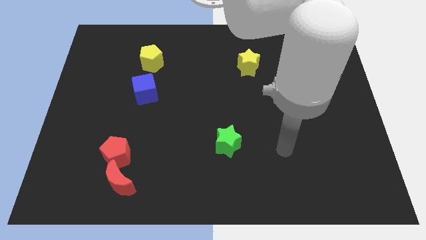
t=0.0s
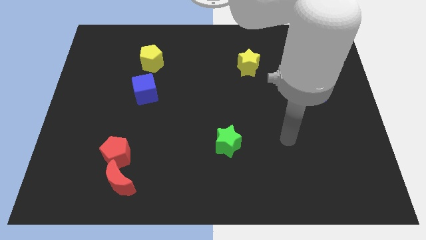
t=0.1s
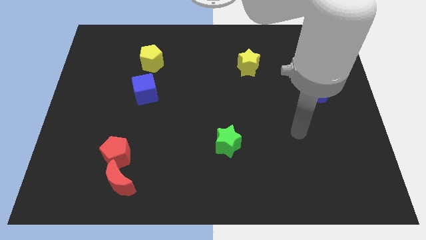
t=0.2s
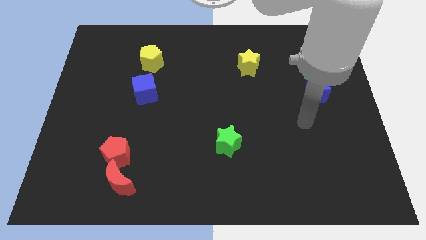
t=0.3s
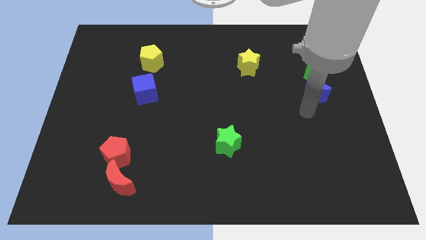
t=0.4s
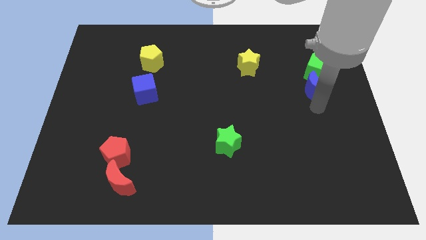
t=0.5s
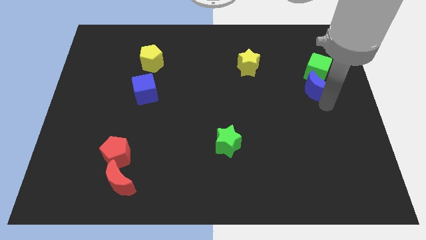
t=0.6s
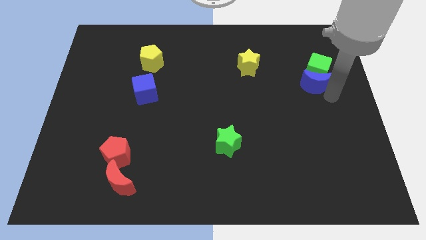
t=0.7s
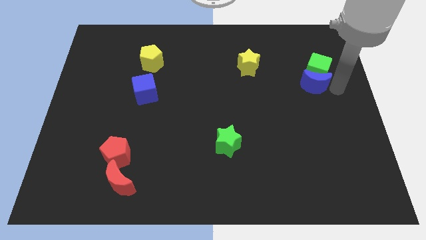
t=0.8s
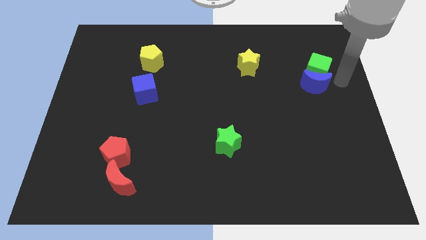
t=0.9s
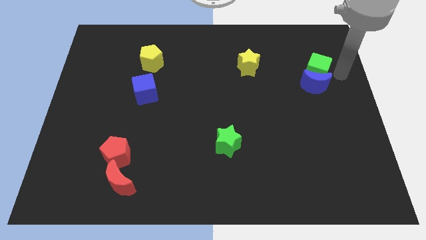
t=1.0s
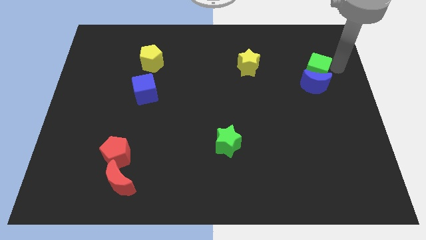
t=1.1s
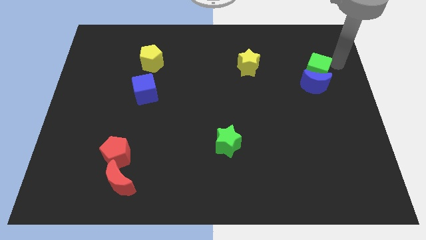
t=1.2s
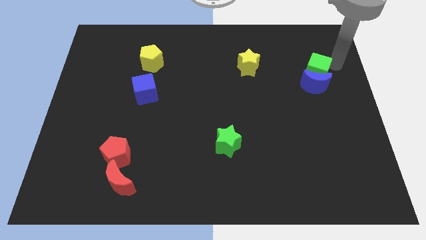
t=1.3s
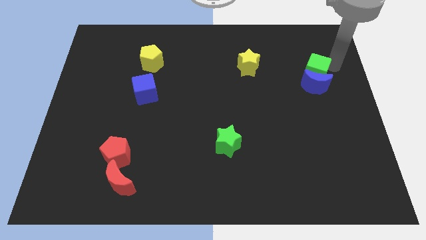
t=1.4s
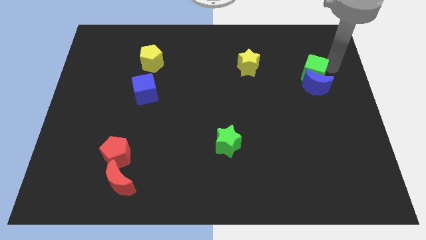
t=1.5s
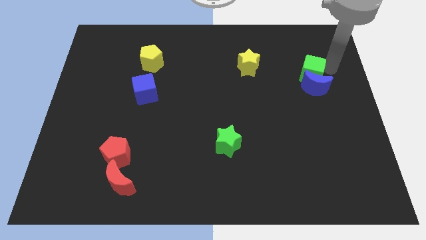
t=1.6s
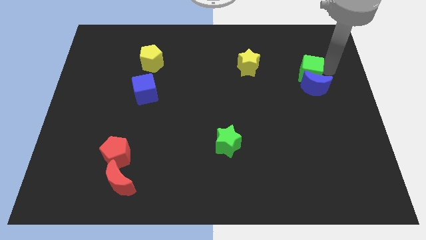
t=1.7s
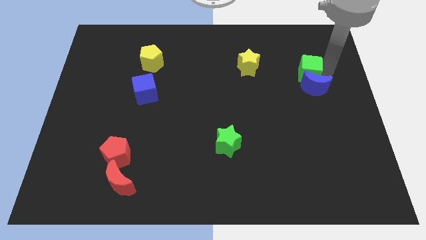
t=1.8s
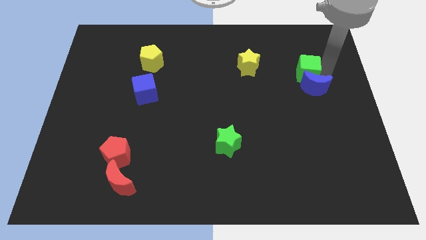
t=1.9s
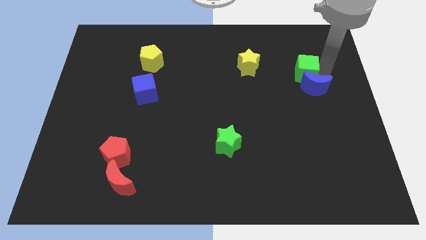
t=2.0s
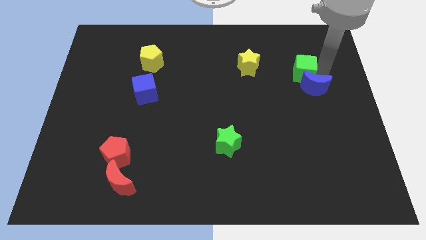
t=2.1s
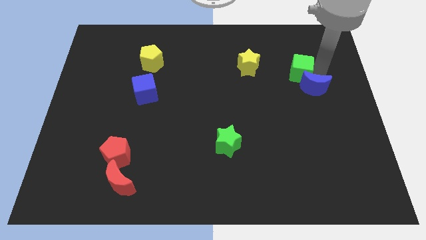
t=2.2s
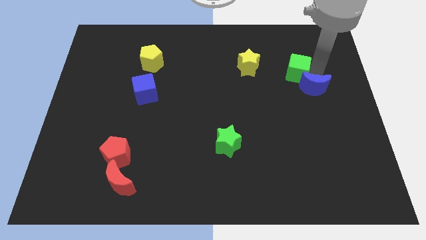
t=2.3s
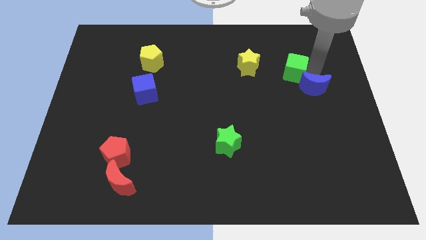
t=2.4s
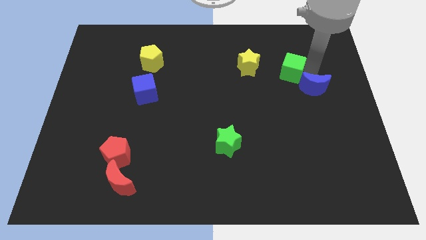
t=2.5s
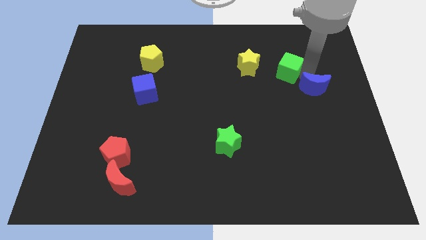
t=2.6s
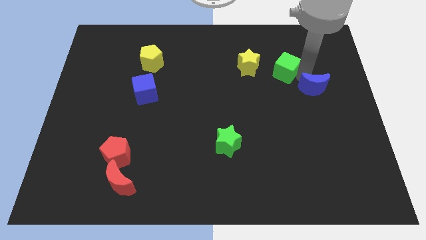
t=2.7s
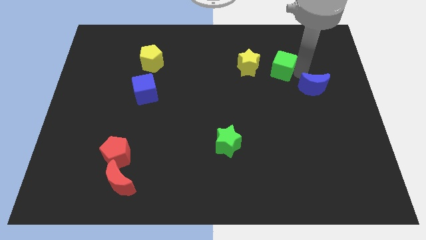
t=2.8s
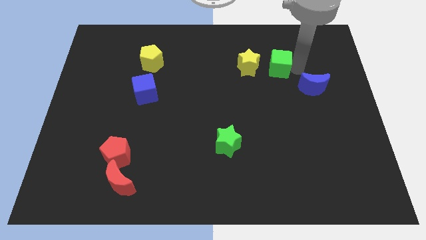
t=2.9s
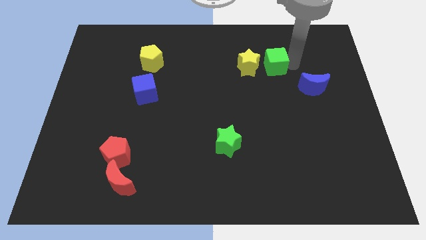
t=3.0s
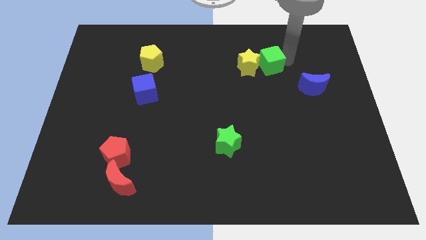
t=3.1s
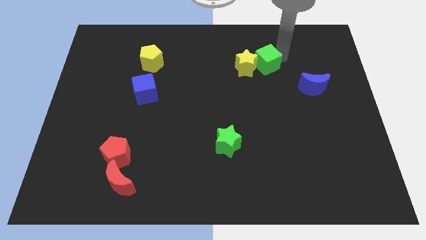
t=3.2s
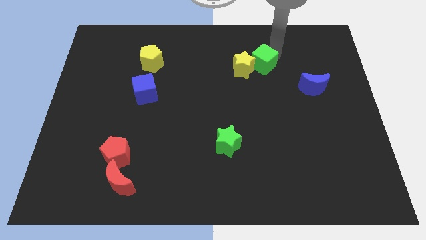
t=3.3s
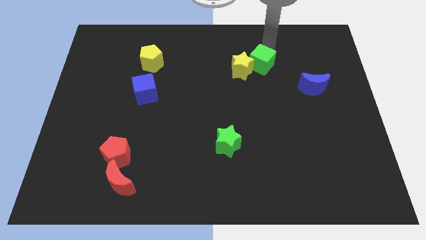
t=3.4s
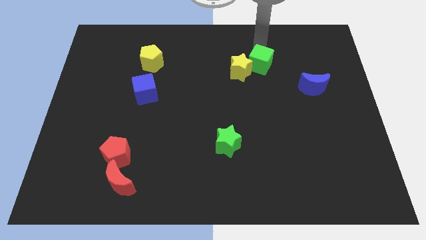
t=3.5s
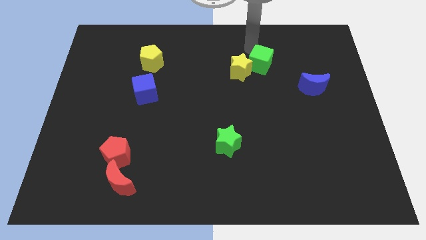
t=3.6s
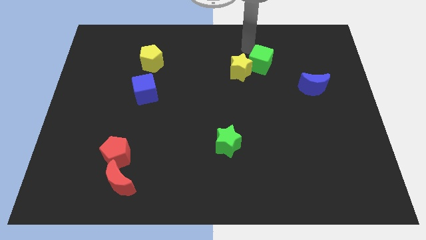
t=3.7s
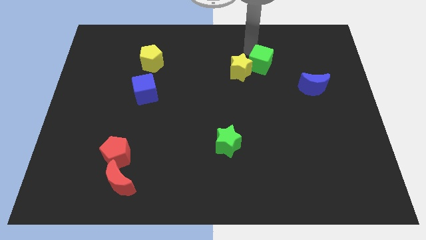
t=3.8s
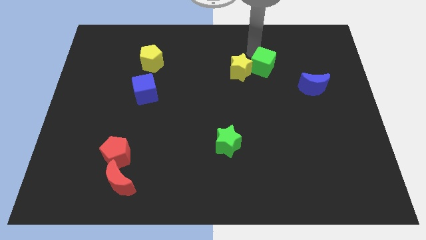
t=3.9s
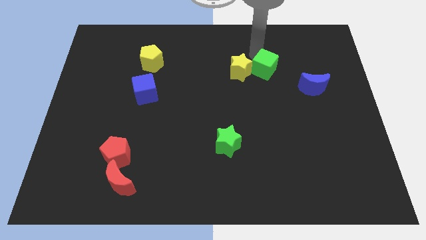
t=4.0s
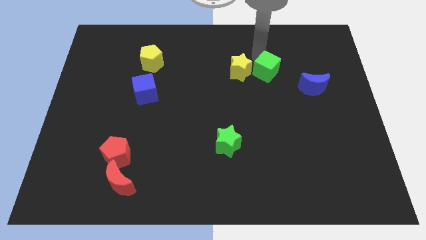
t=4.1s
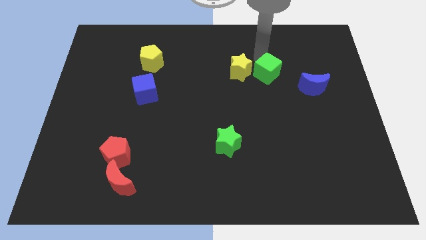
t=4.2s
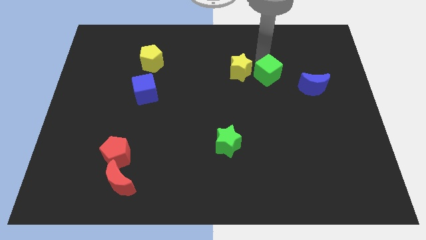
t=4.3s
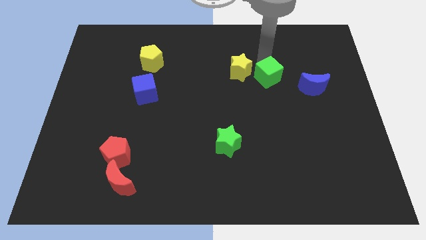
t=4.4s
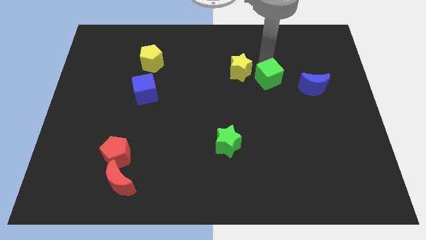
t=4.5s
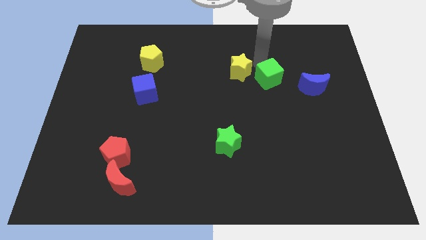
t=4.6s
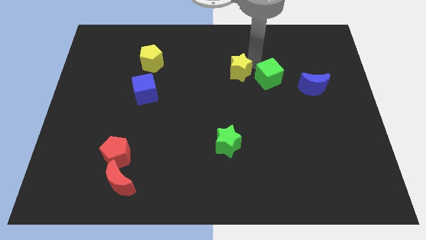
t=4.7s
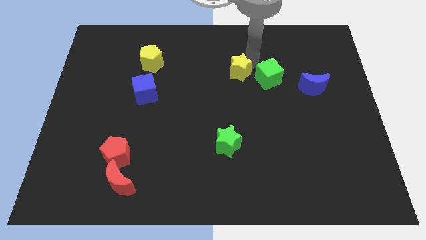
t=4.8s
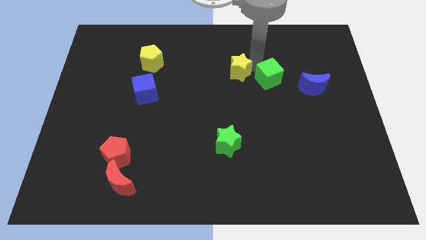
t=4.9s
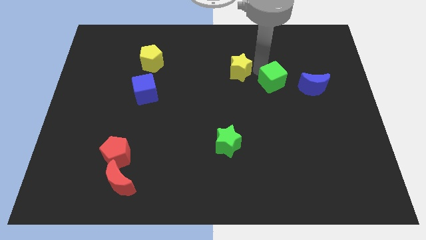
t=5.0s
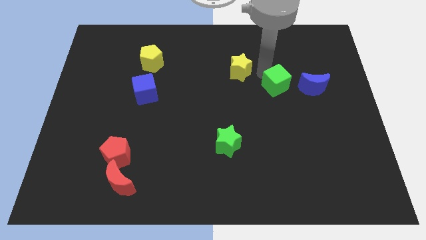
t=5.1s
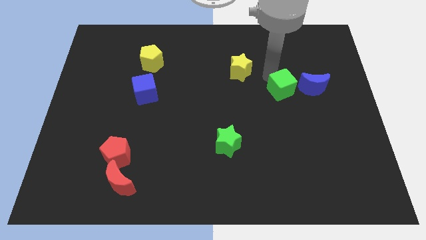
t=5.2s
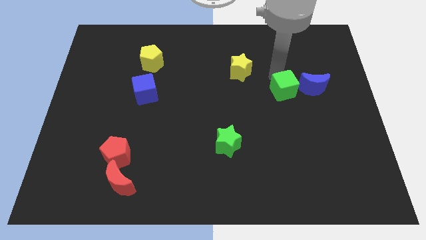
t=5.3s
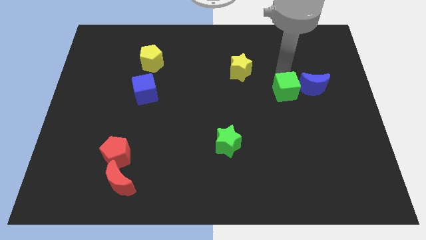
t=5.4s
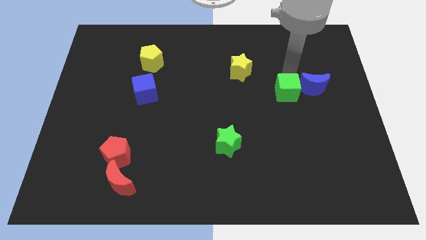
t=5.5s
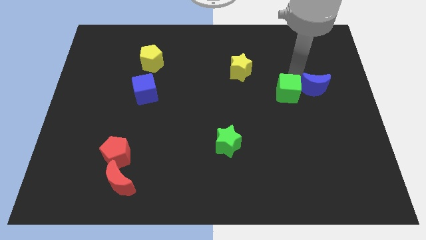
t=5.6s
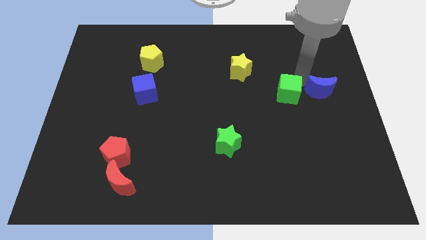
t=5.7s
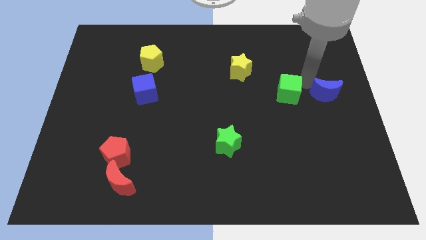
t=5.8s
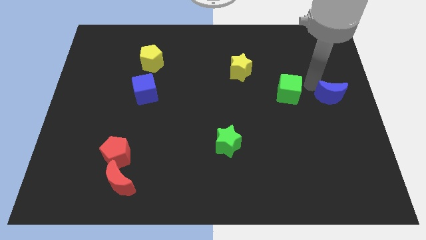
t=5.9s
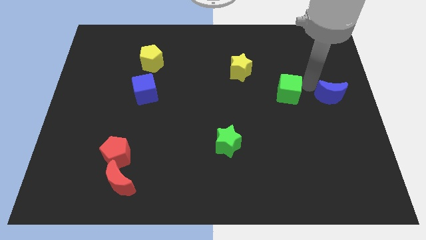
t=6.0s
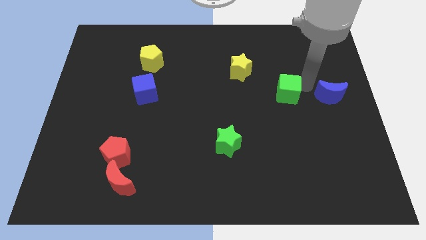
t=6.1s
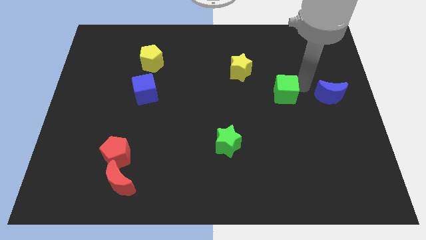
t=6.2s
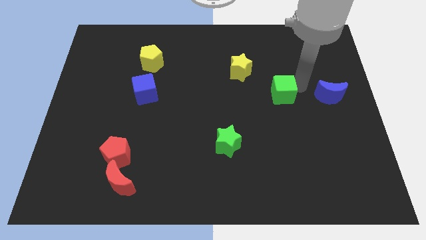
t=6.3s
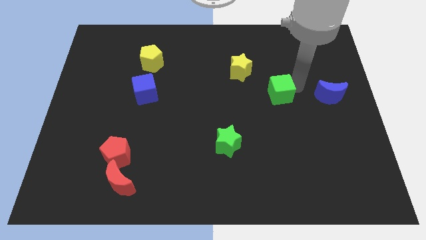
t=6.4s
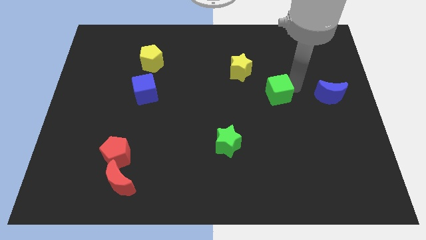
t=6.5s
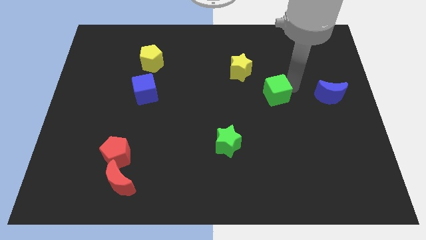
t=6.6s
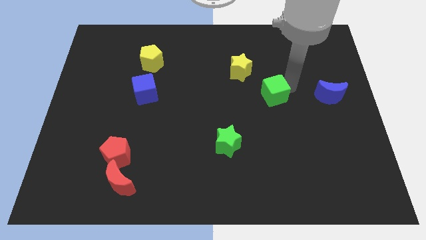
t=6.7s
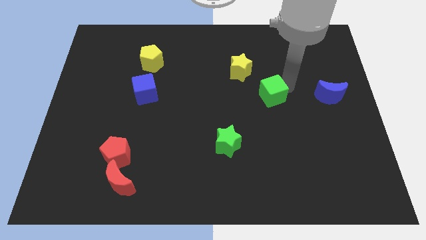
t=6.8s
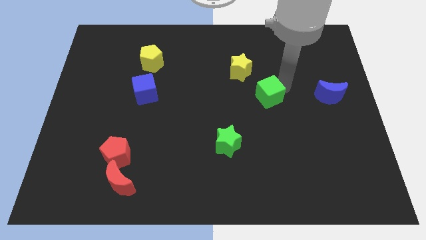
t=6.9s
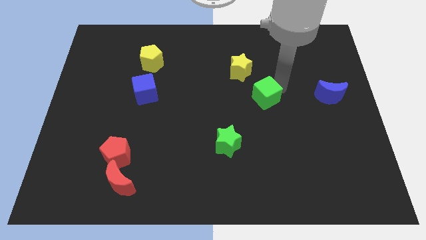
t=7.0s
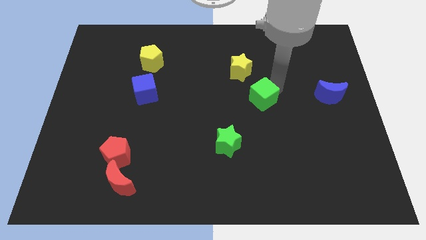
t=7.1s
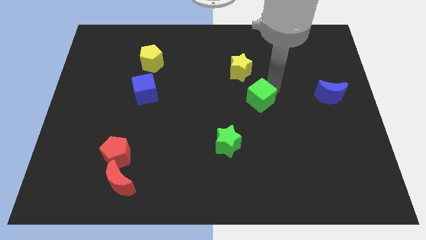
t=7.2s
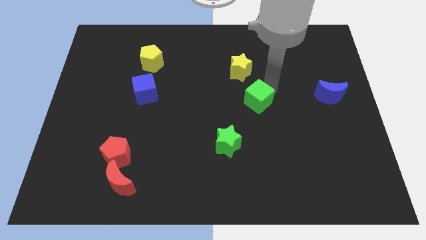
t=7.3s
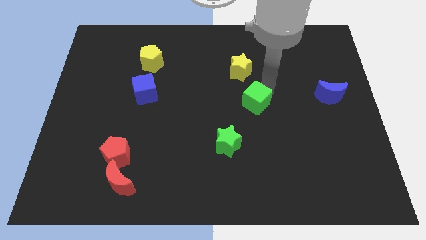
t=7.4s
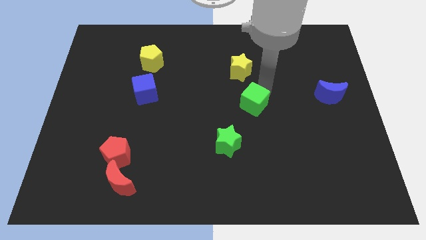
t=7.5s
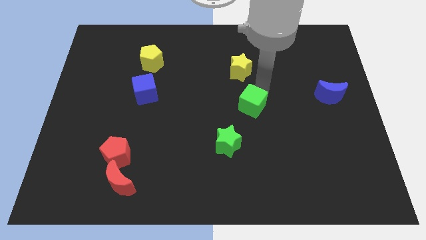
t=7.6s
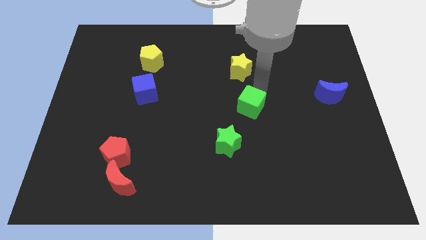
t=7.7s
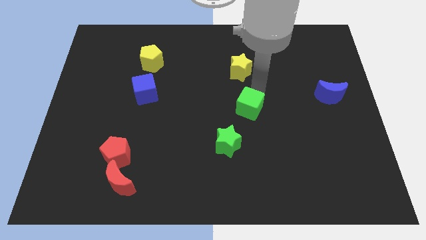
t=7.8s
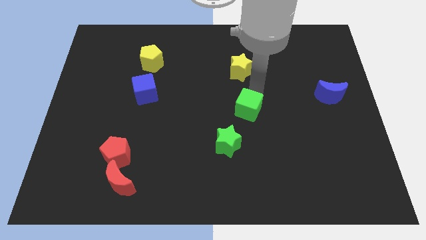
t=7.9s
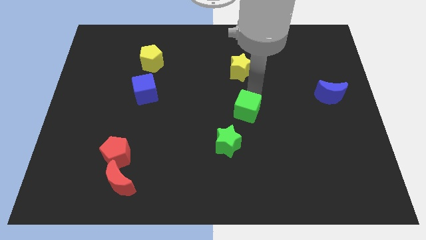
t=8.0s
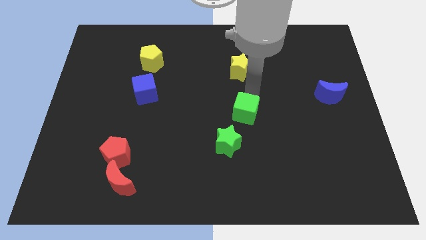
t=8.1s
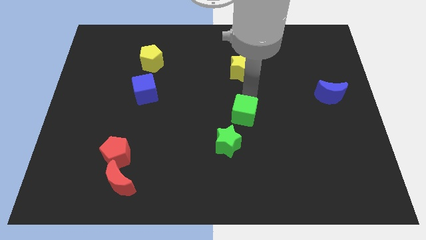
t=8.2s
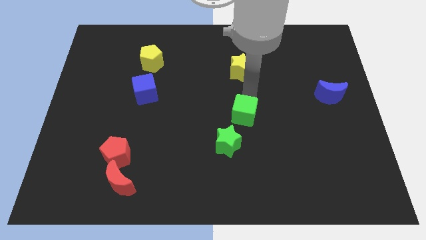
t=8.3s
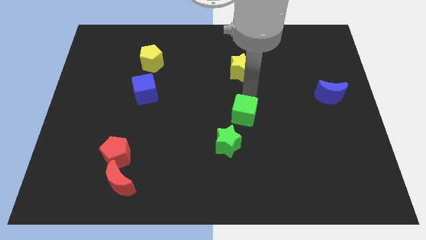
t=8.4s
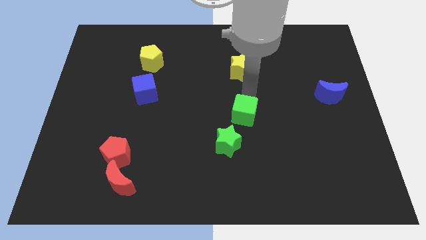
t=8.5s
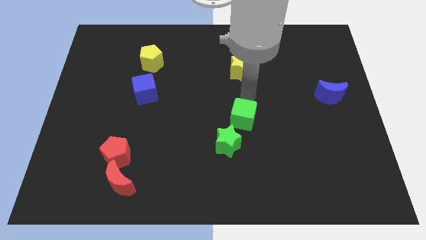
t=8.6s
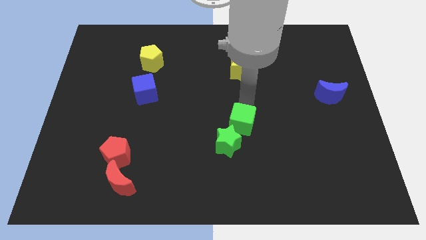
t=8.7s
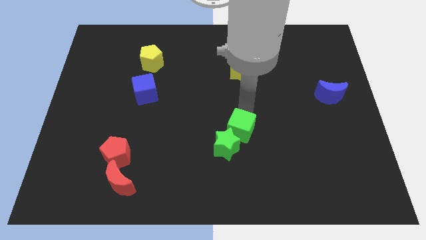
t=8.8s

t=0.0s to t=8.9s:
push the green cube close to the green star
